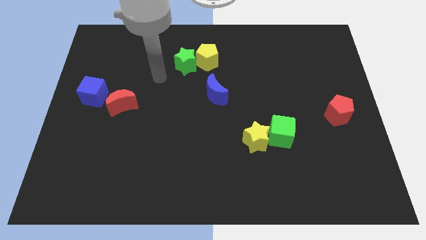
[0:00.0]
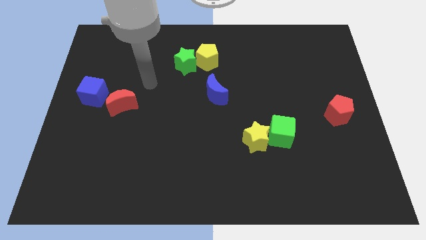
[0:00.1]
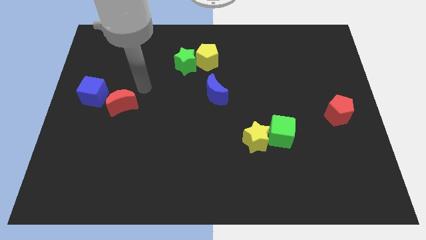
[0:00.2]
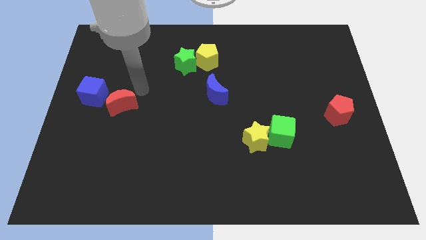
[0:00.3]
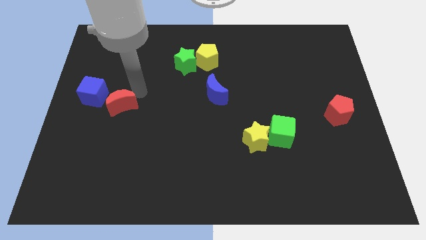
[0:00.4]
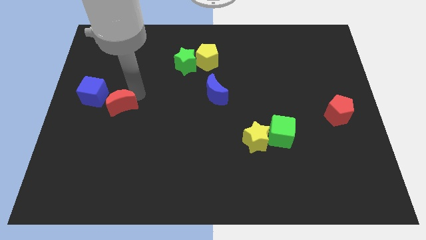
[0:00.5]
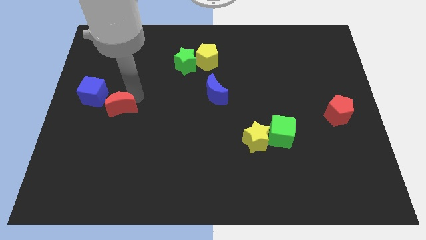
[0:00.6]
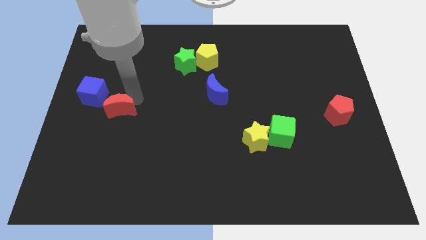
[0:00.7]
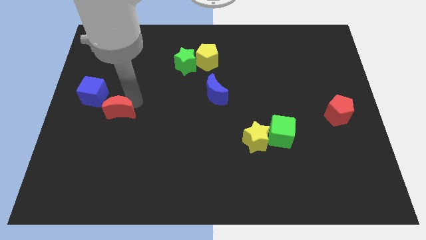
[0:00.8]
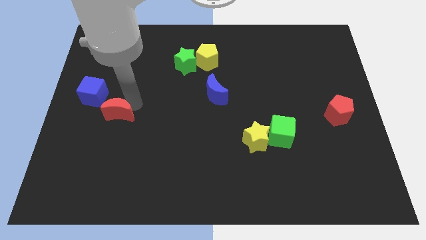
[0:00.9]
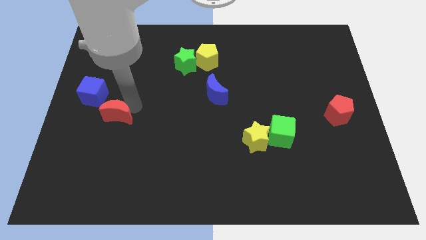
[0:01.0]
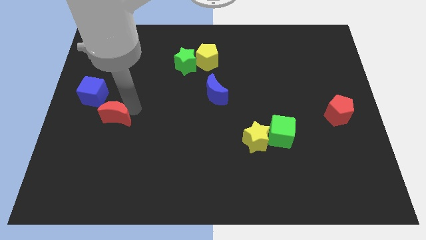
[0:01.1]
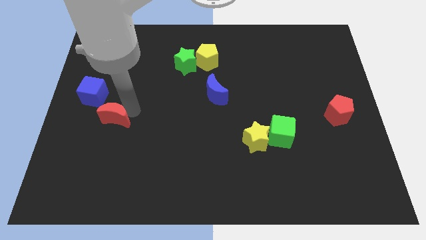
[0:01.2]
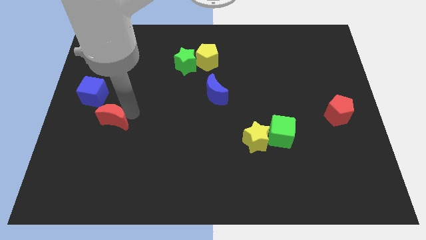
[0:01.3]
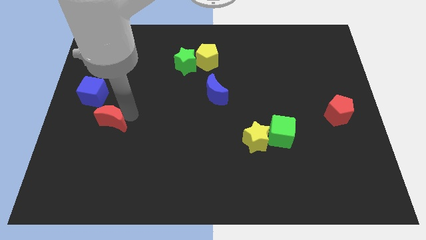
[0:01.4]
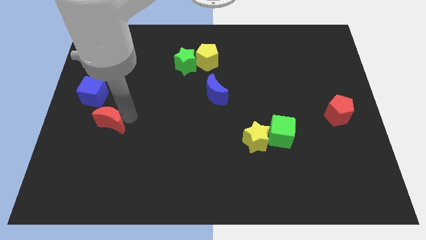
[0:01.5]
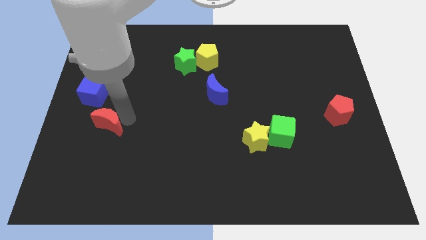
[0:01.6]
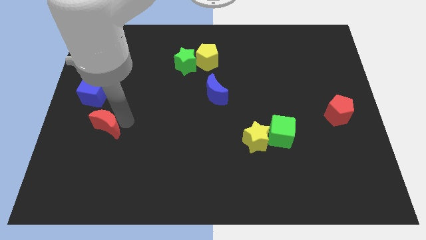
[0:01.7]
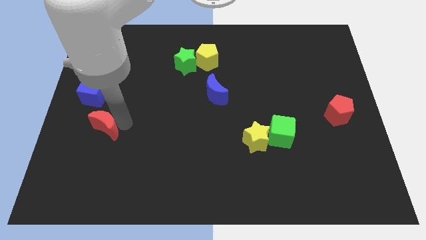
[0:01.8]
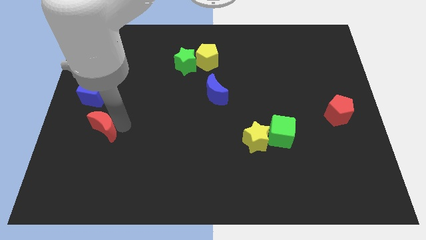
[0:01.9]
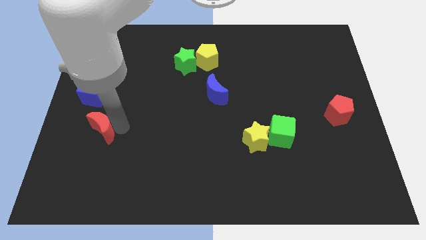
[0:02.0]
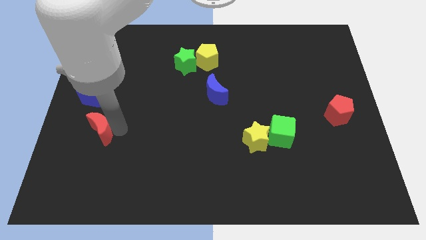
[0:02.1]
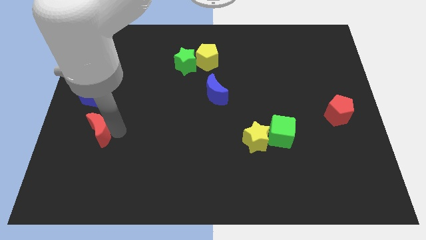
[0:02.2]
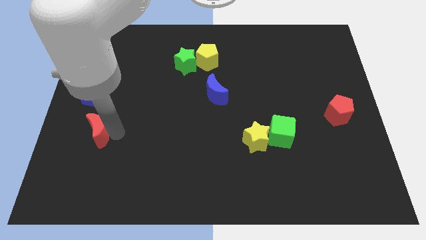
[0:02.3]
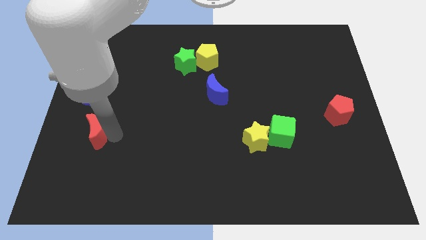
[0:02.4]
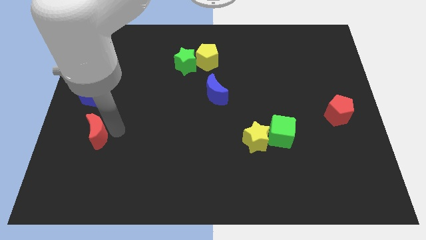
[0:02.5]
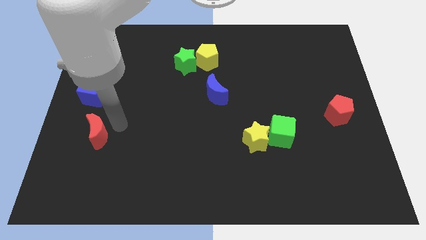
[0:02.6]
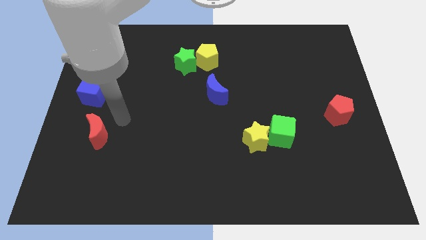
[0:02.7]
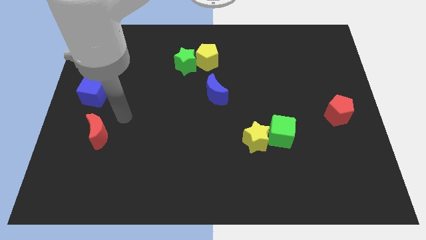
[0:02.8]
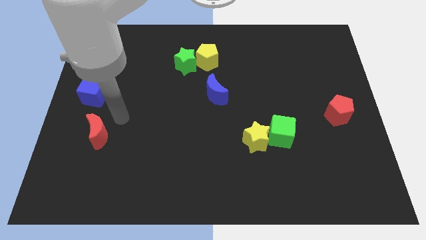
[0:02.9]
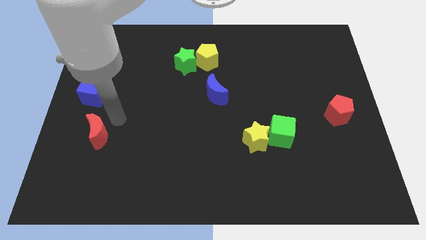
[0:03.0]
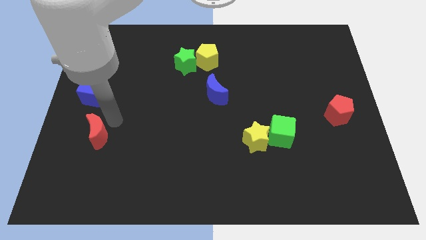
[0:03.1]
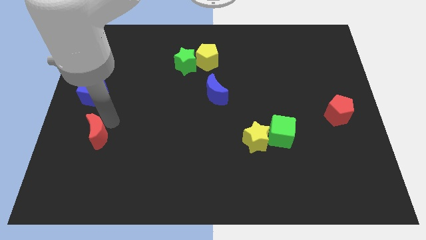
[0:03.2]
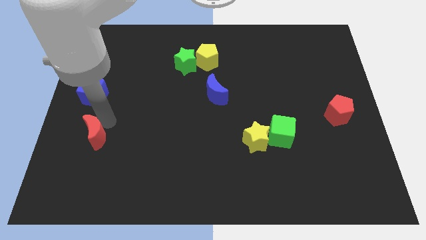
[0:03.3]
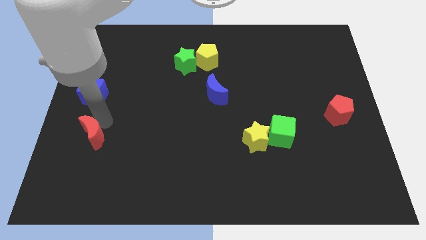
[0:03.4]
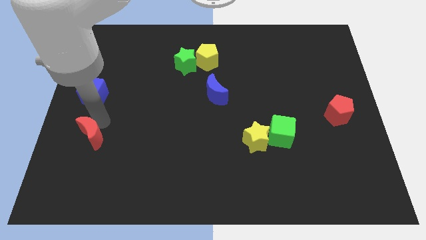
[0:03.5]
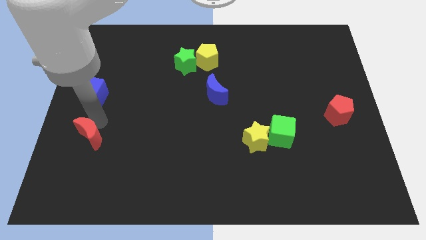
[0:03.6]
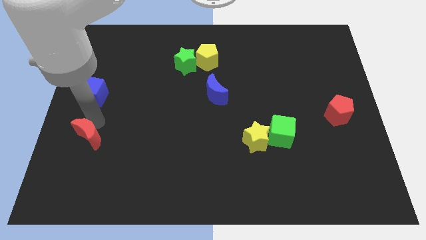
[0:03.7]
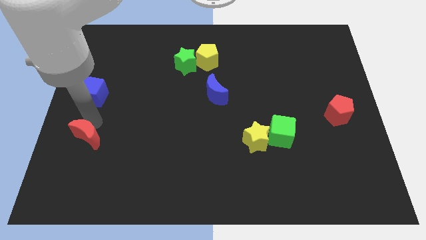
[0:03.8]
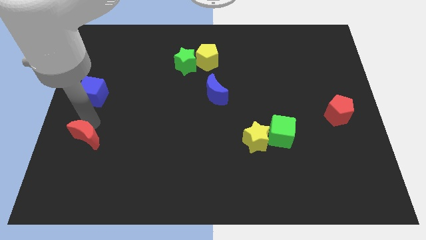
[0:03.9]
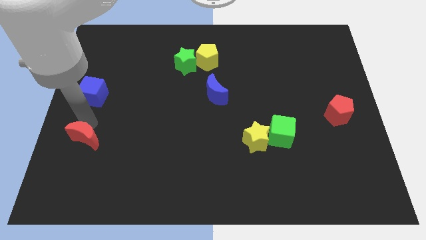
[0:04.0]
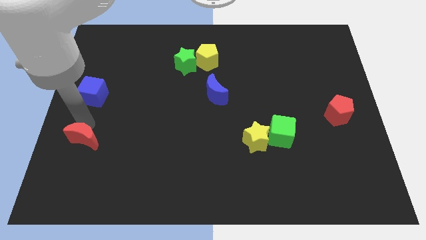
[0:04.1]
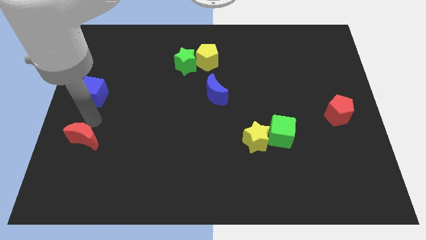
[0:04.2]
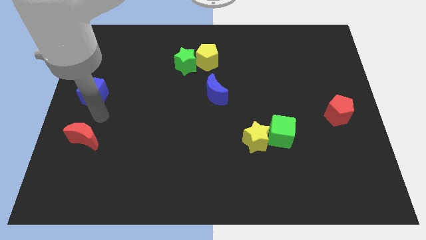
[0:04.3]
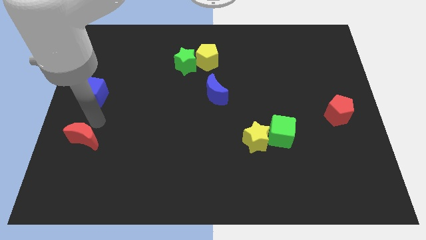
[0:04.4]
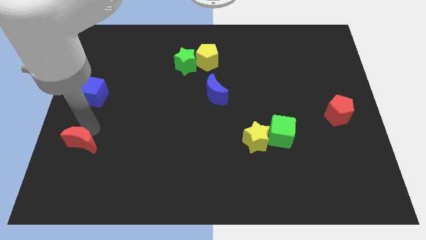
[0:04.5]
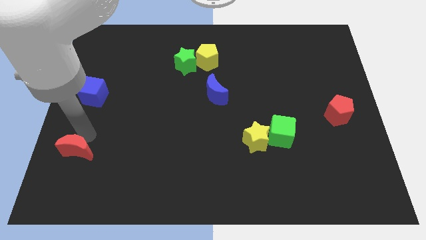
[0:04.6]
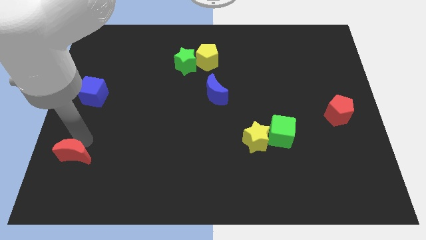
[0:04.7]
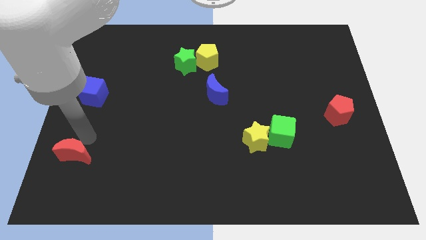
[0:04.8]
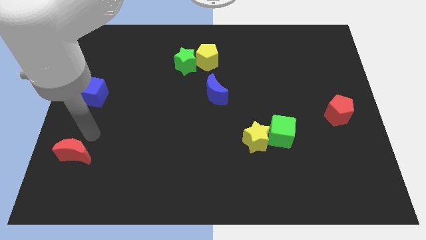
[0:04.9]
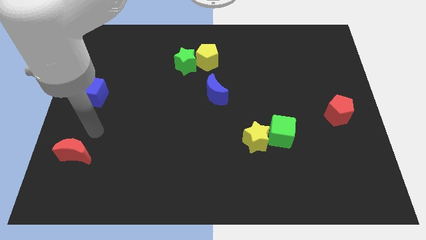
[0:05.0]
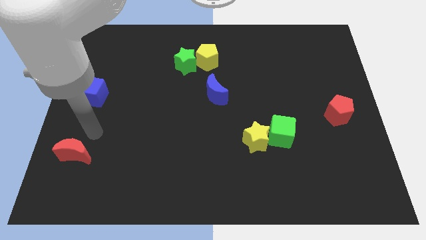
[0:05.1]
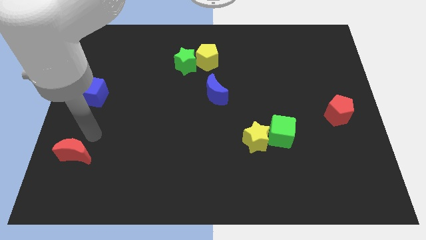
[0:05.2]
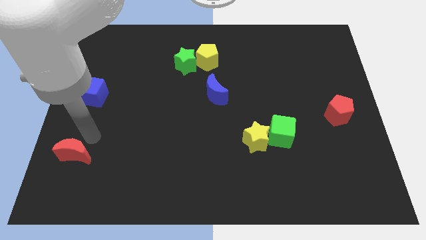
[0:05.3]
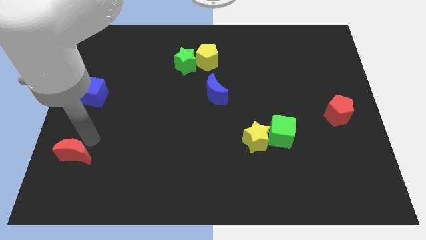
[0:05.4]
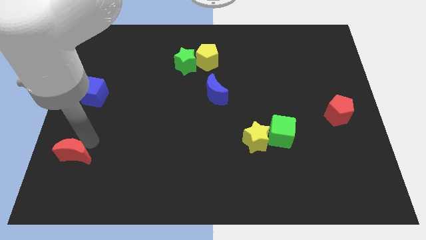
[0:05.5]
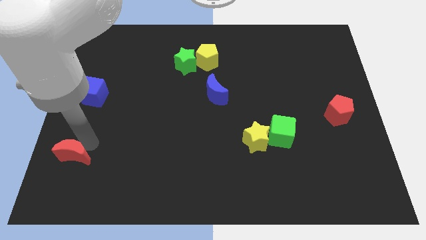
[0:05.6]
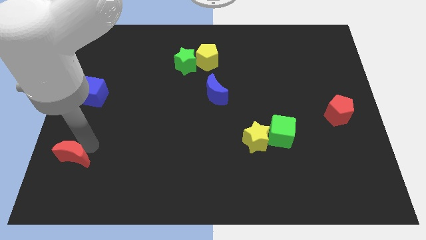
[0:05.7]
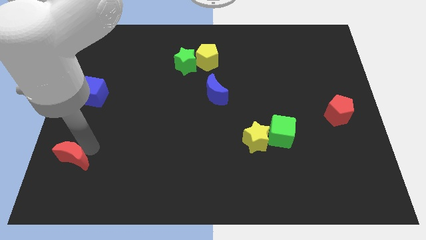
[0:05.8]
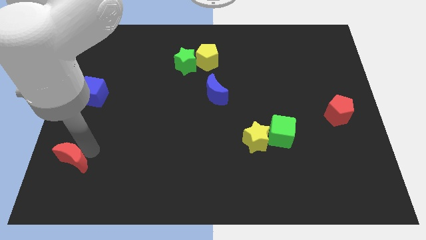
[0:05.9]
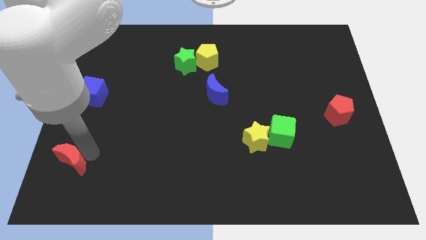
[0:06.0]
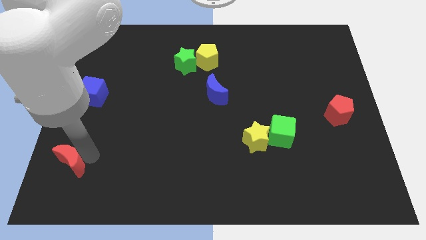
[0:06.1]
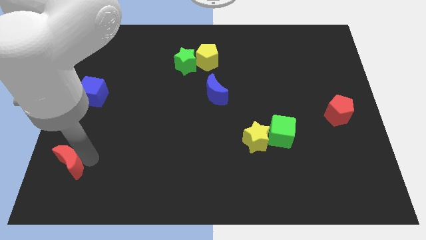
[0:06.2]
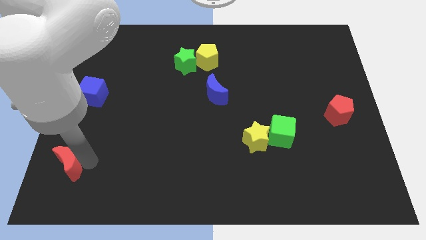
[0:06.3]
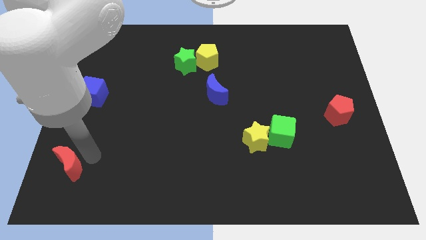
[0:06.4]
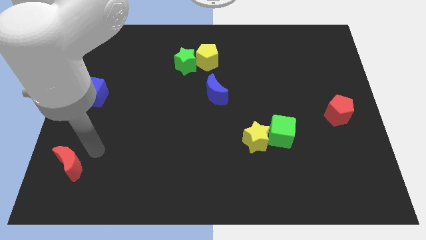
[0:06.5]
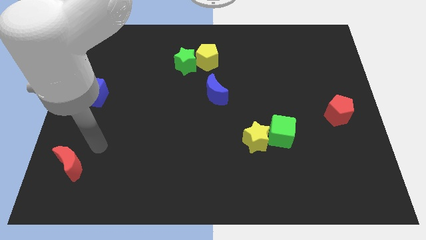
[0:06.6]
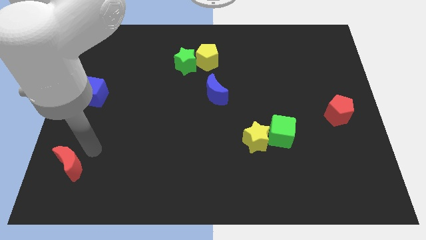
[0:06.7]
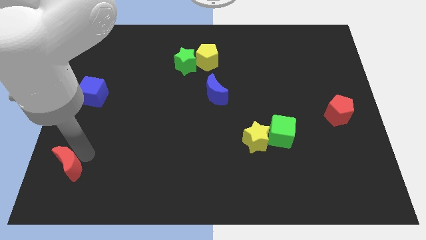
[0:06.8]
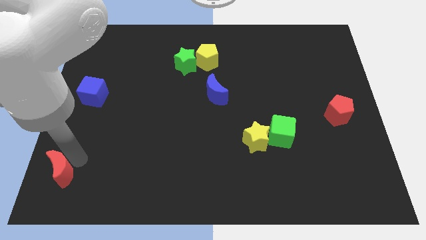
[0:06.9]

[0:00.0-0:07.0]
put the red moon to the bottom left of the board

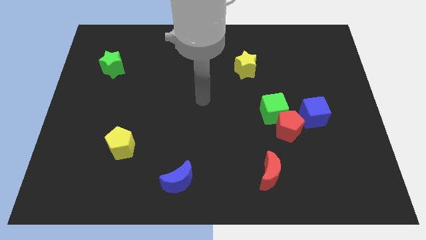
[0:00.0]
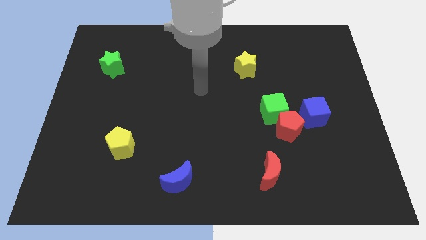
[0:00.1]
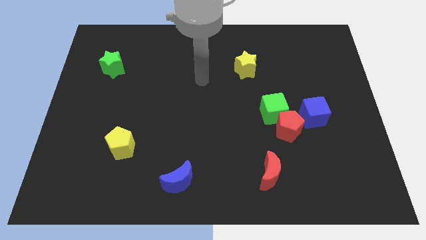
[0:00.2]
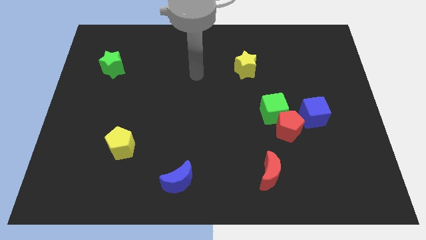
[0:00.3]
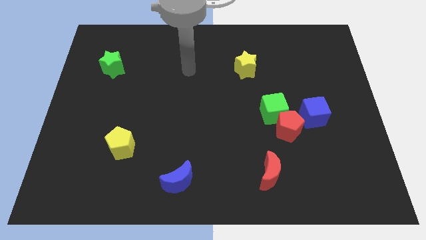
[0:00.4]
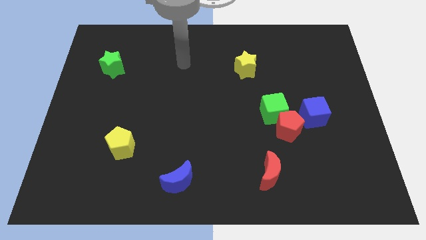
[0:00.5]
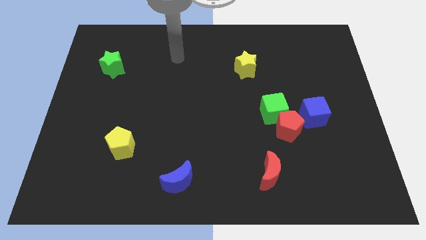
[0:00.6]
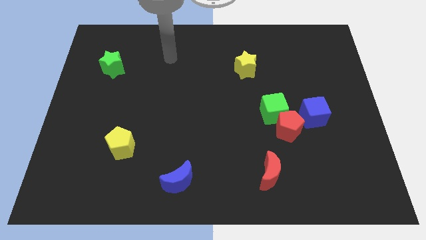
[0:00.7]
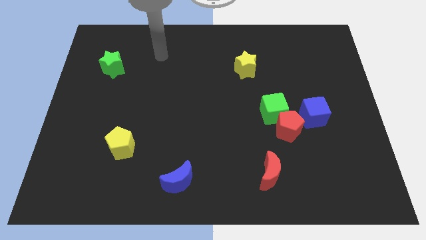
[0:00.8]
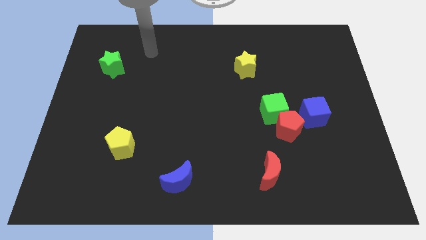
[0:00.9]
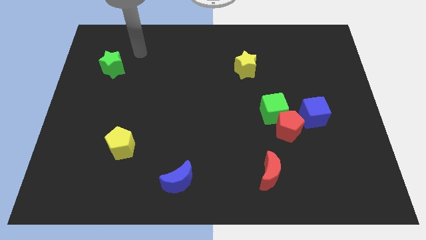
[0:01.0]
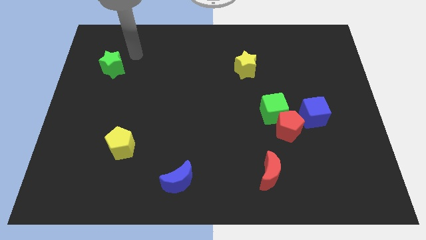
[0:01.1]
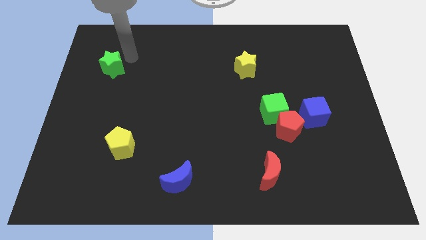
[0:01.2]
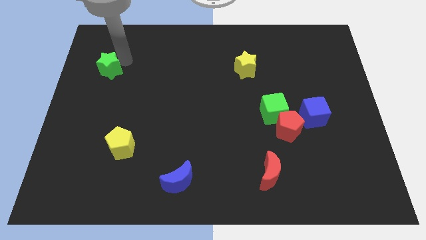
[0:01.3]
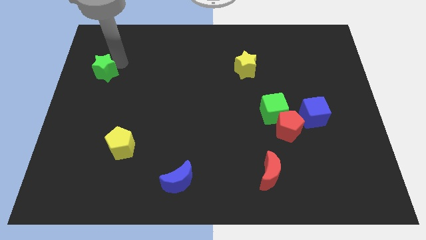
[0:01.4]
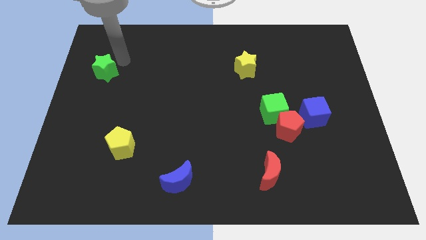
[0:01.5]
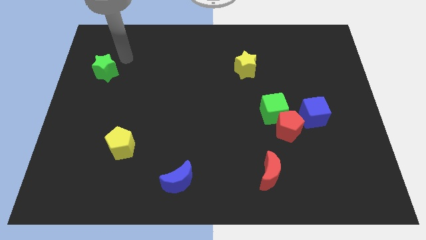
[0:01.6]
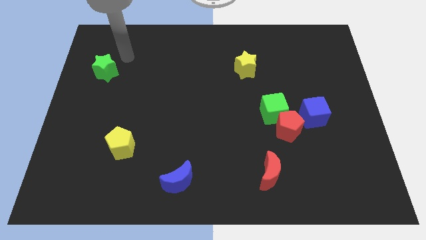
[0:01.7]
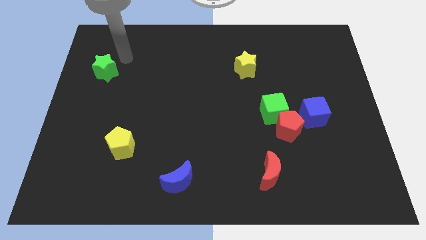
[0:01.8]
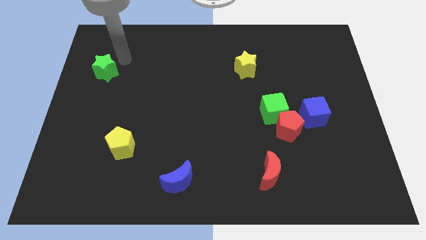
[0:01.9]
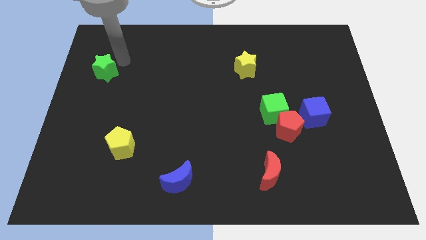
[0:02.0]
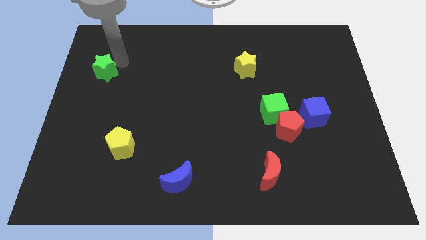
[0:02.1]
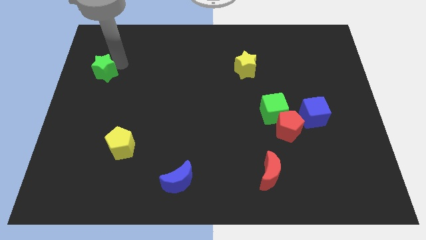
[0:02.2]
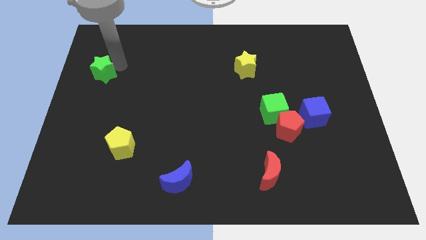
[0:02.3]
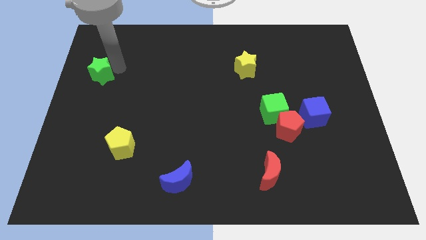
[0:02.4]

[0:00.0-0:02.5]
push the green star to the left side
